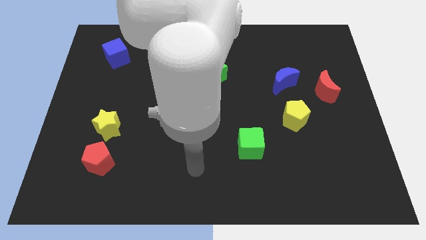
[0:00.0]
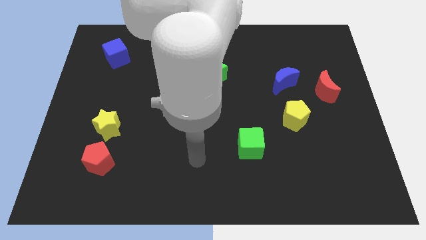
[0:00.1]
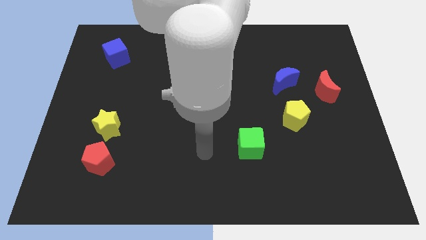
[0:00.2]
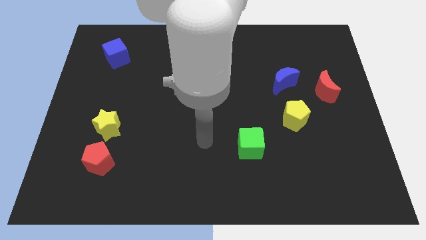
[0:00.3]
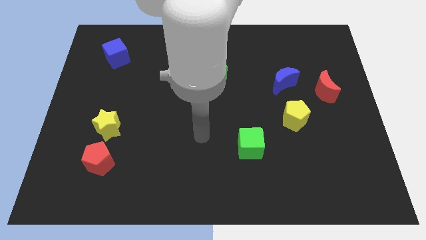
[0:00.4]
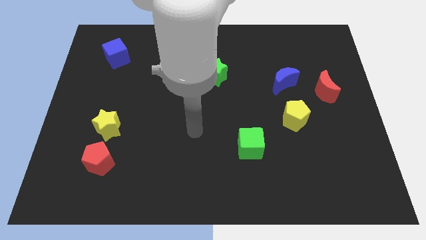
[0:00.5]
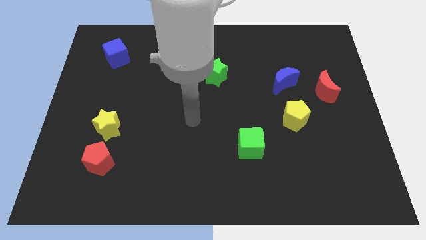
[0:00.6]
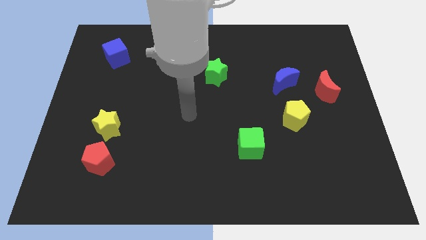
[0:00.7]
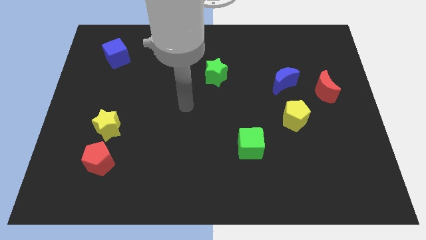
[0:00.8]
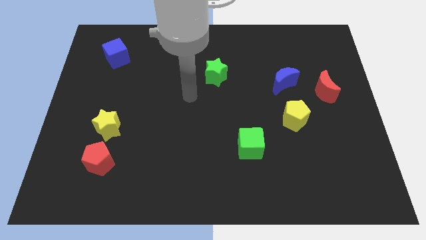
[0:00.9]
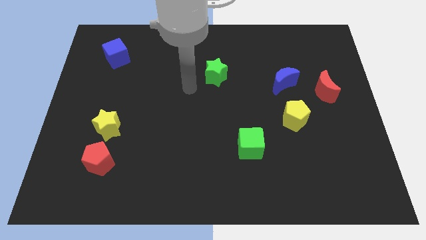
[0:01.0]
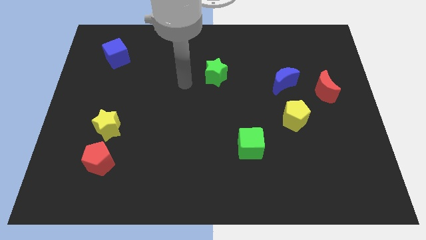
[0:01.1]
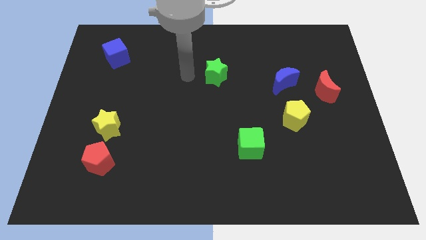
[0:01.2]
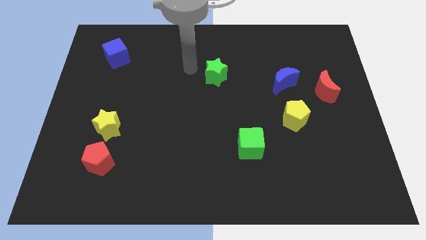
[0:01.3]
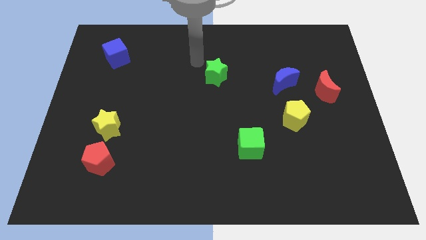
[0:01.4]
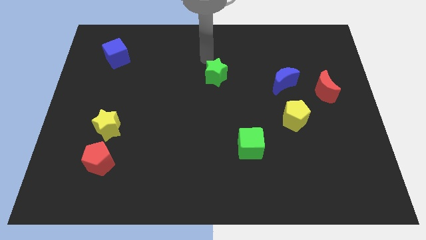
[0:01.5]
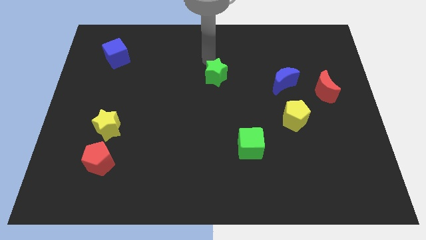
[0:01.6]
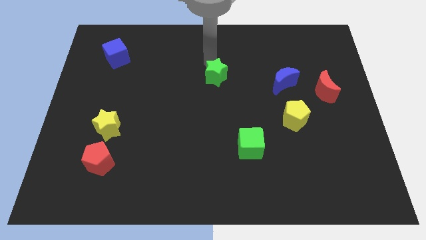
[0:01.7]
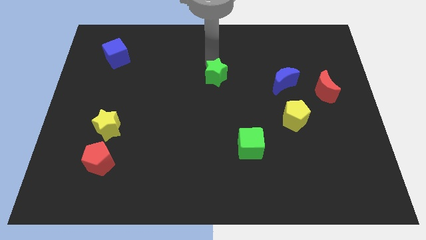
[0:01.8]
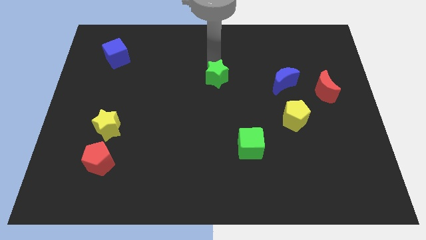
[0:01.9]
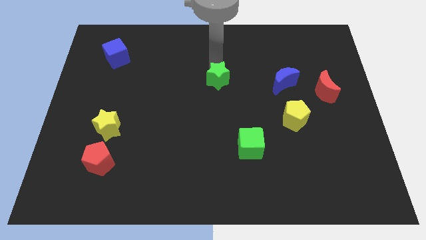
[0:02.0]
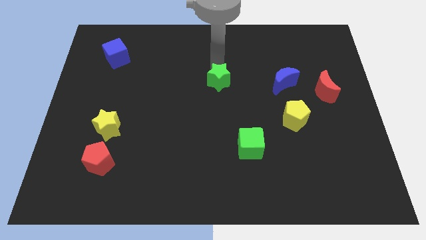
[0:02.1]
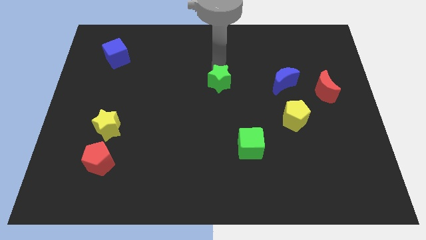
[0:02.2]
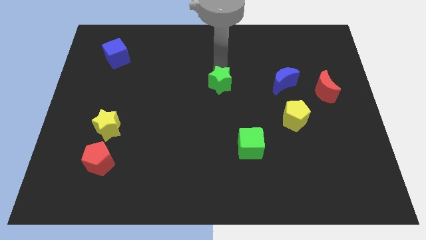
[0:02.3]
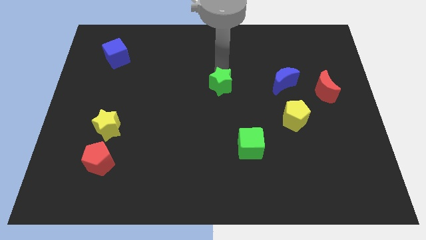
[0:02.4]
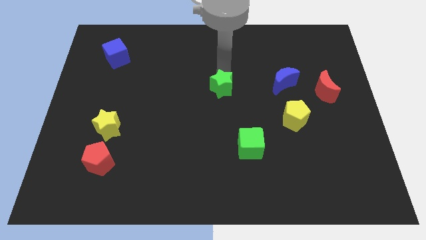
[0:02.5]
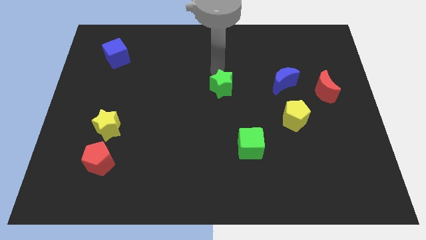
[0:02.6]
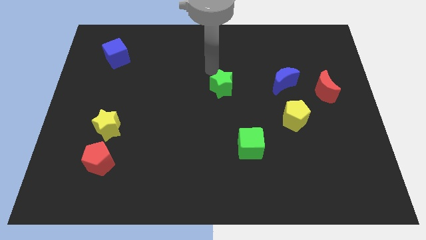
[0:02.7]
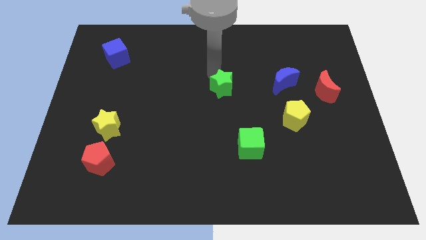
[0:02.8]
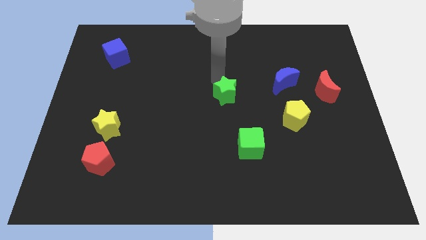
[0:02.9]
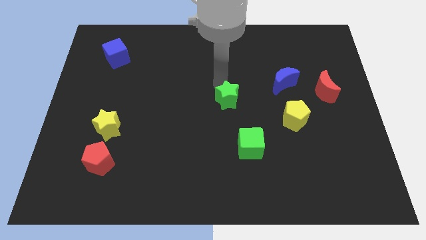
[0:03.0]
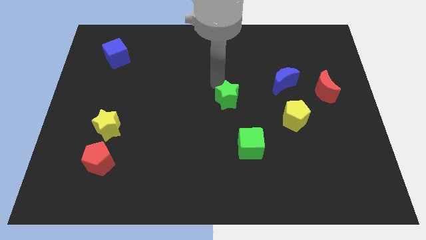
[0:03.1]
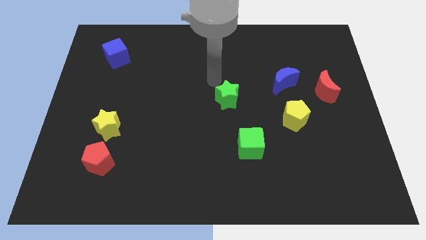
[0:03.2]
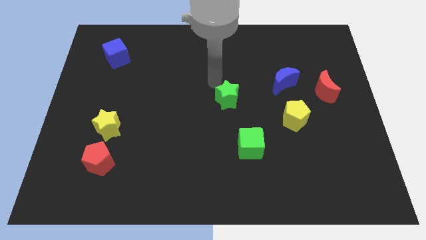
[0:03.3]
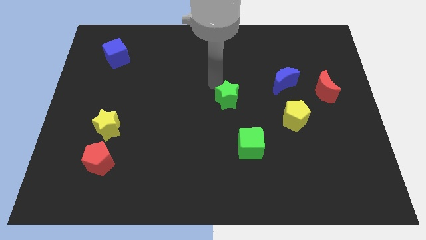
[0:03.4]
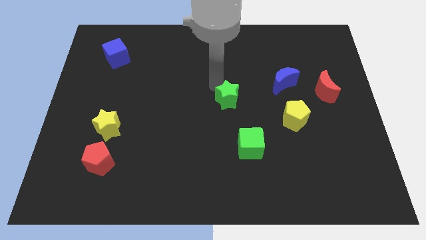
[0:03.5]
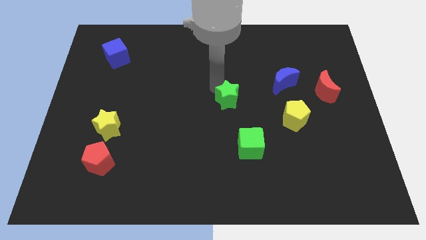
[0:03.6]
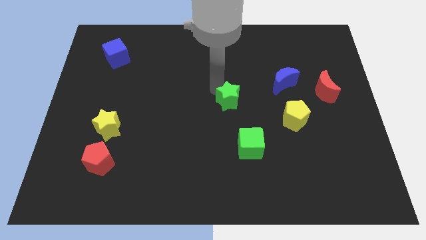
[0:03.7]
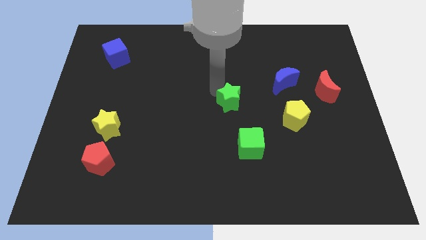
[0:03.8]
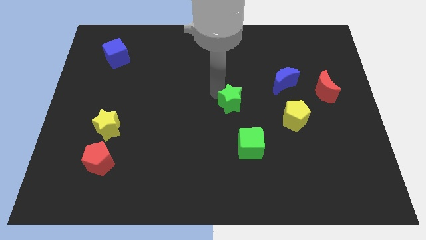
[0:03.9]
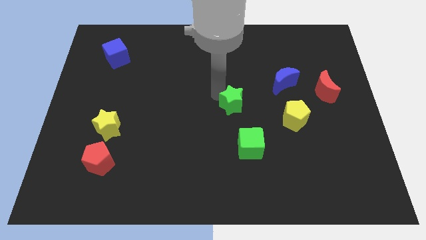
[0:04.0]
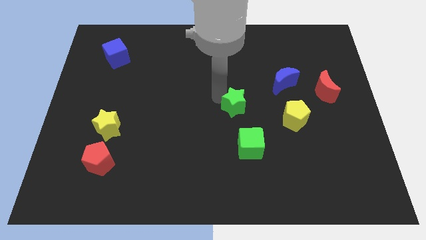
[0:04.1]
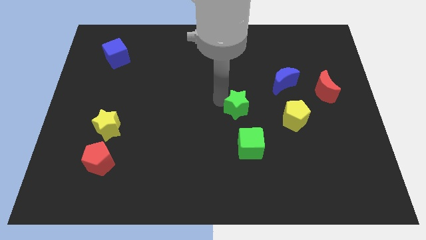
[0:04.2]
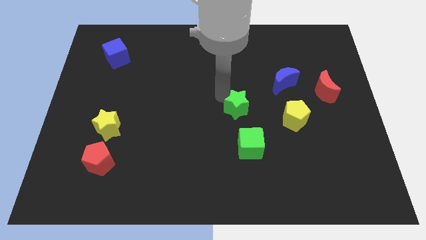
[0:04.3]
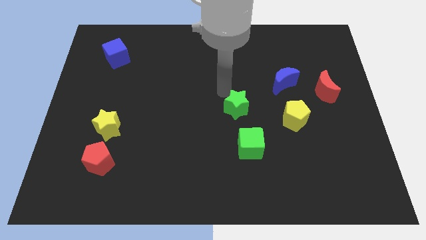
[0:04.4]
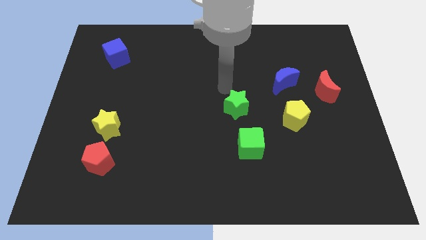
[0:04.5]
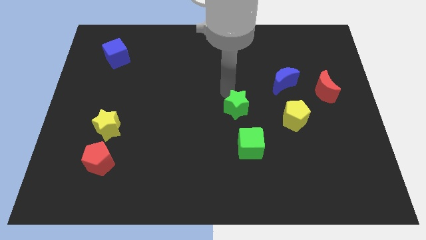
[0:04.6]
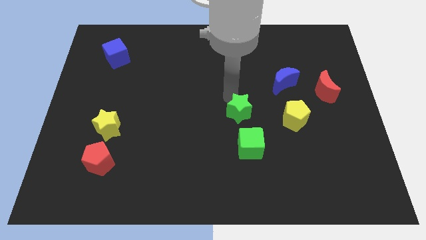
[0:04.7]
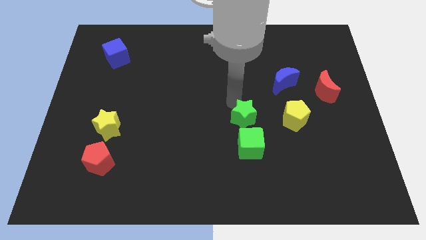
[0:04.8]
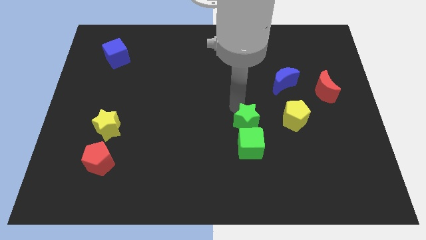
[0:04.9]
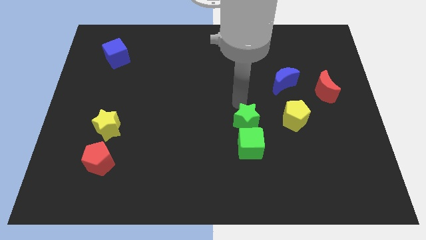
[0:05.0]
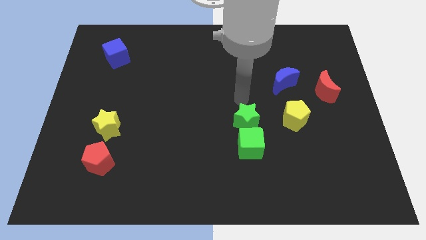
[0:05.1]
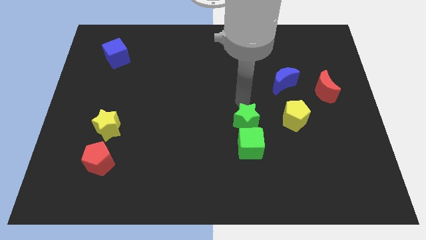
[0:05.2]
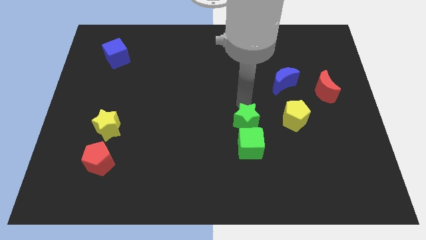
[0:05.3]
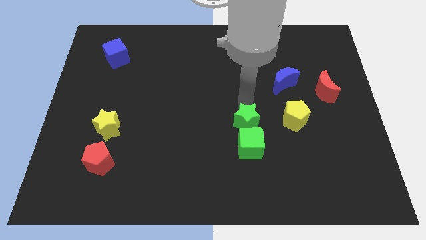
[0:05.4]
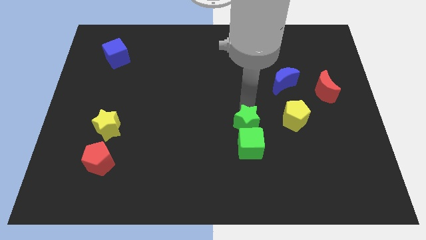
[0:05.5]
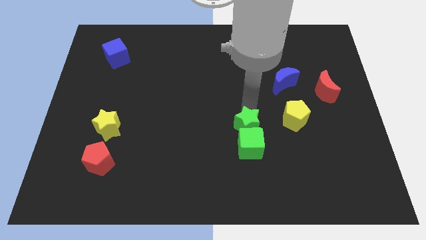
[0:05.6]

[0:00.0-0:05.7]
slide the green star to the green cube

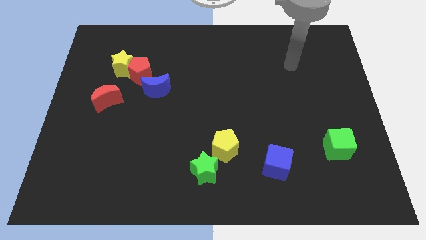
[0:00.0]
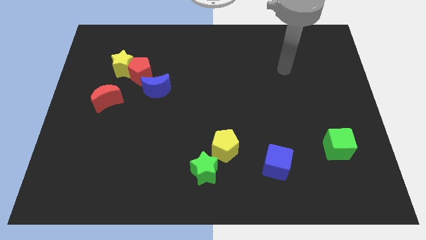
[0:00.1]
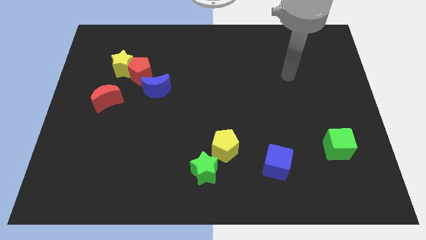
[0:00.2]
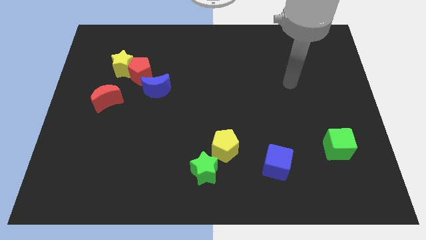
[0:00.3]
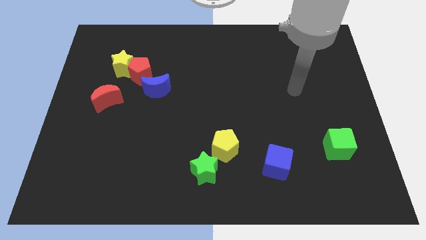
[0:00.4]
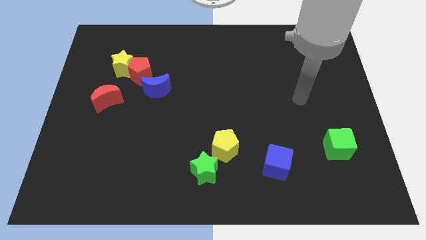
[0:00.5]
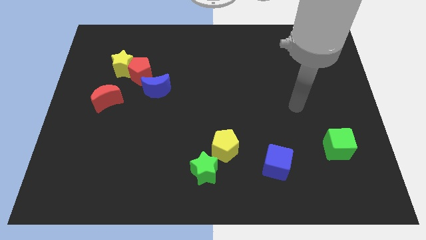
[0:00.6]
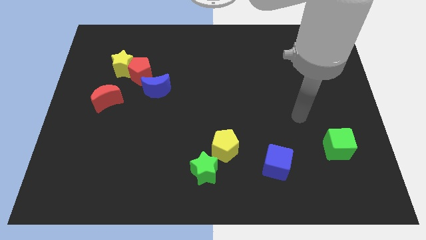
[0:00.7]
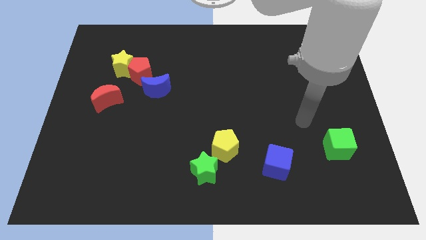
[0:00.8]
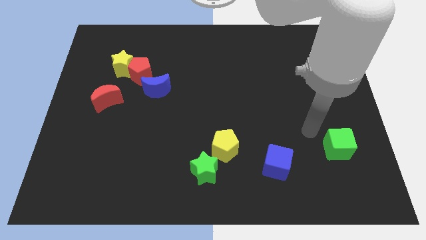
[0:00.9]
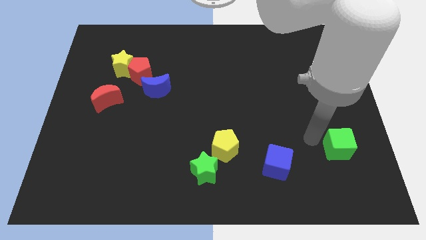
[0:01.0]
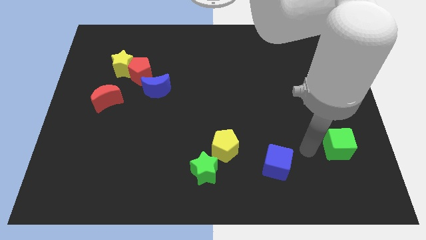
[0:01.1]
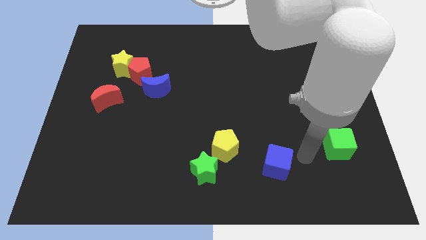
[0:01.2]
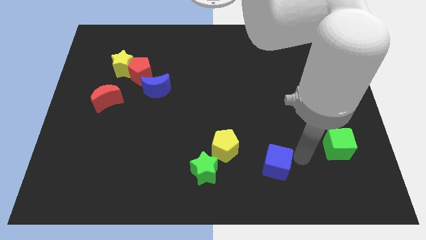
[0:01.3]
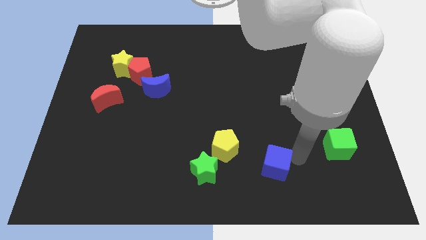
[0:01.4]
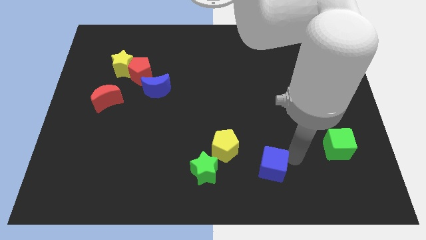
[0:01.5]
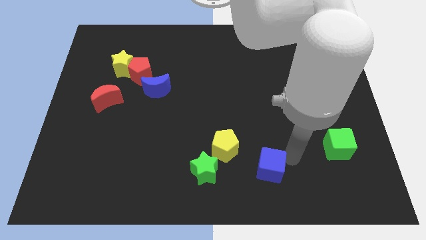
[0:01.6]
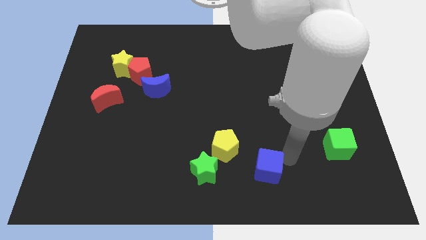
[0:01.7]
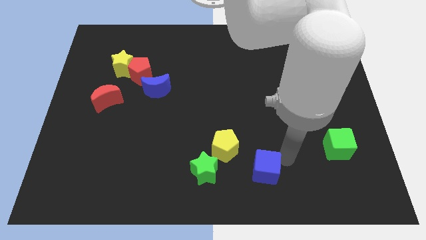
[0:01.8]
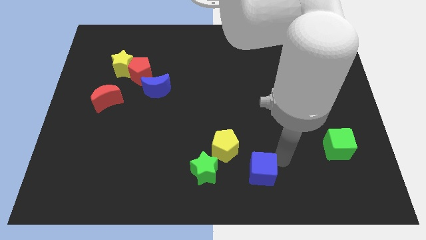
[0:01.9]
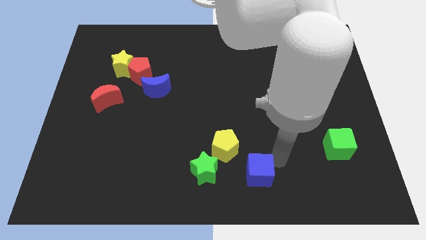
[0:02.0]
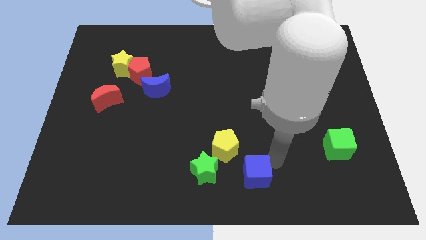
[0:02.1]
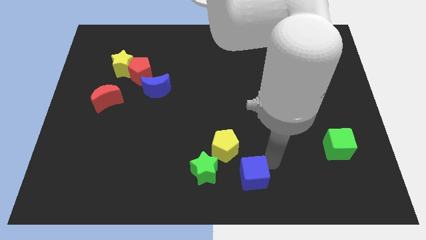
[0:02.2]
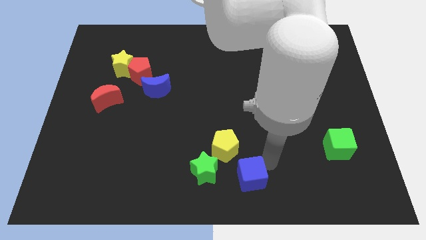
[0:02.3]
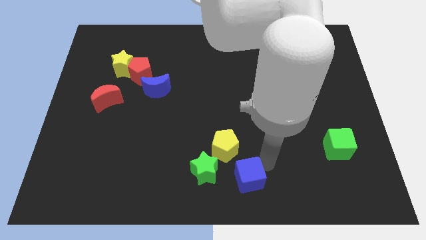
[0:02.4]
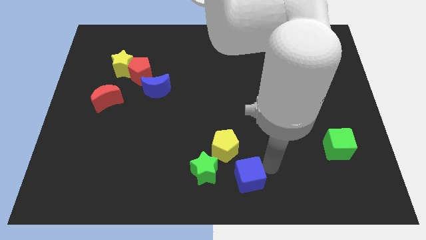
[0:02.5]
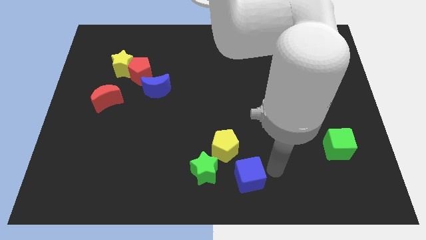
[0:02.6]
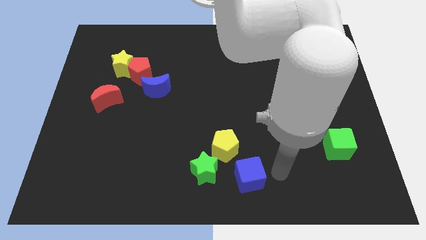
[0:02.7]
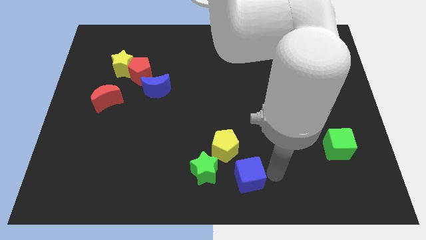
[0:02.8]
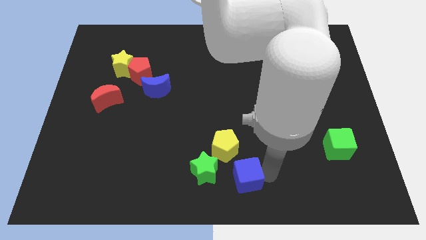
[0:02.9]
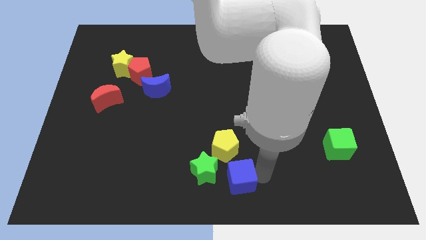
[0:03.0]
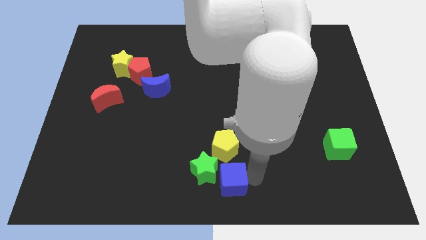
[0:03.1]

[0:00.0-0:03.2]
move the blue cube close to the green star
